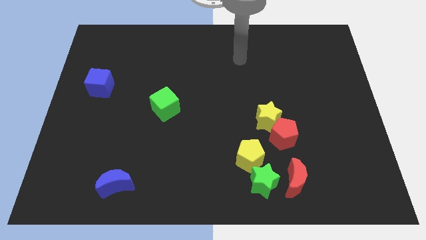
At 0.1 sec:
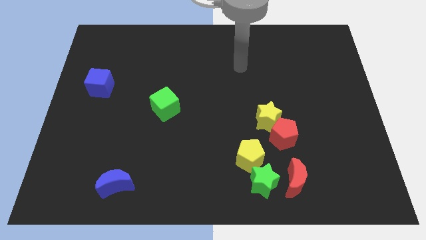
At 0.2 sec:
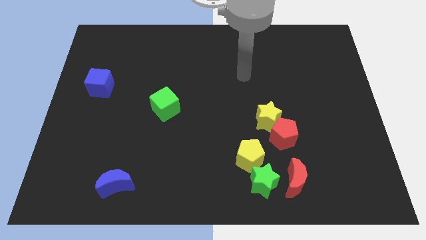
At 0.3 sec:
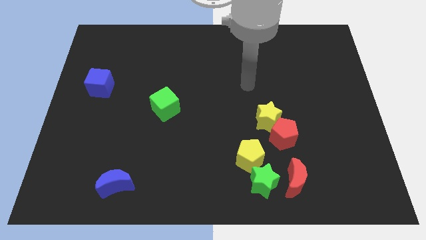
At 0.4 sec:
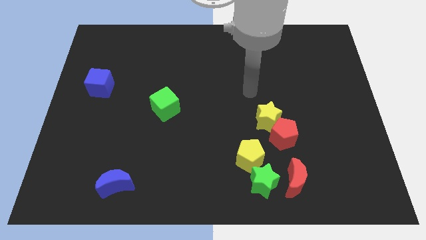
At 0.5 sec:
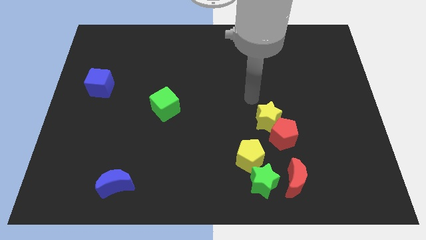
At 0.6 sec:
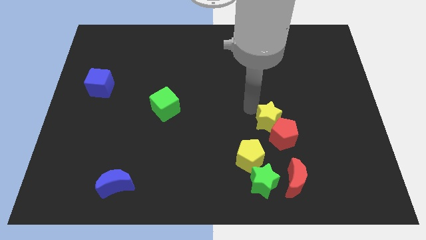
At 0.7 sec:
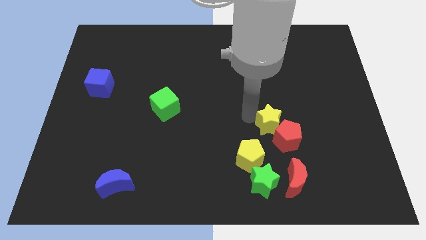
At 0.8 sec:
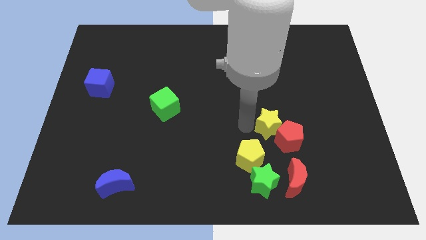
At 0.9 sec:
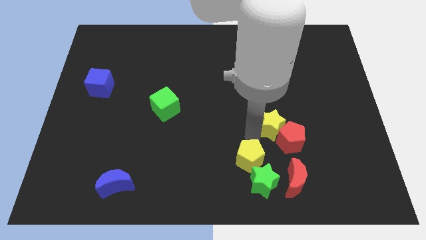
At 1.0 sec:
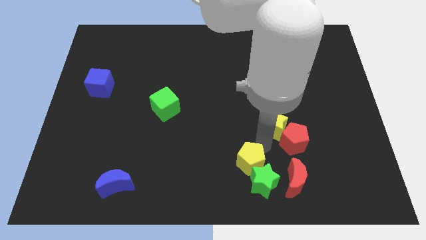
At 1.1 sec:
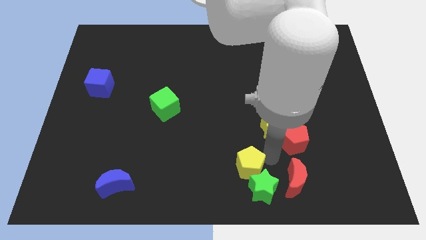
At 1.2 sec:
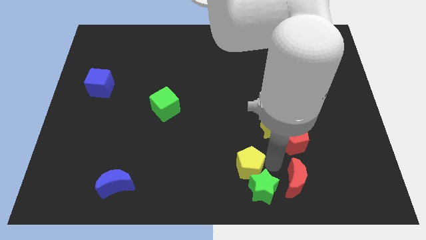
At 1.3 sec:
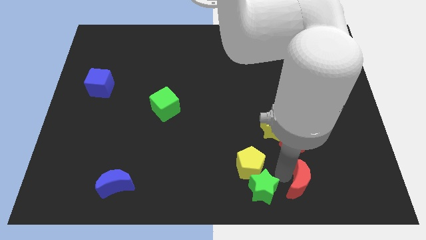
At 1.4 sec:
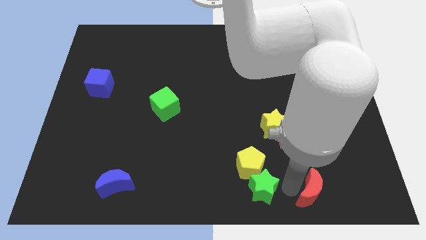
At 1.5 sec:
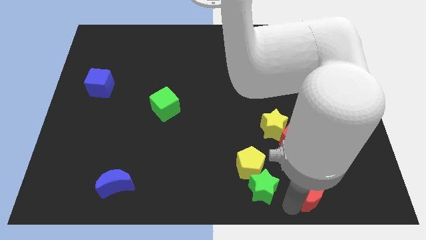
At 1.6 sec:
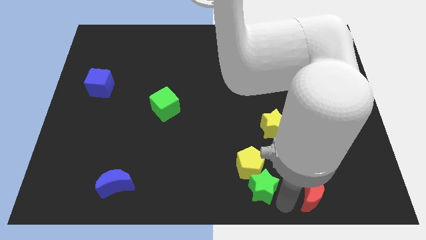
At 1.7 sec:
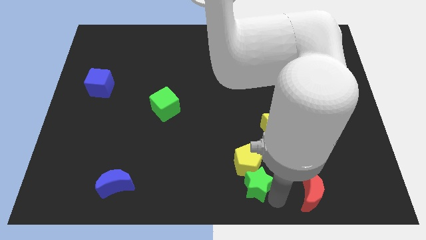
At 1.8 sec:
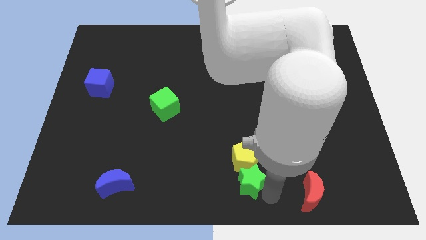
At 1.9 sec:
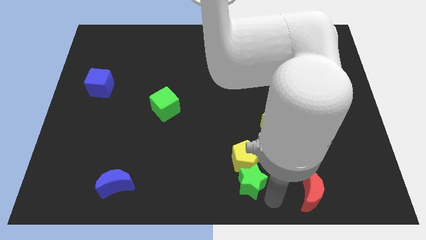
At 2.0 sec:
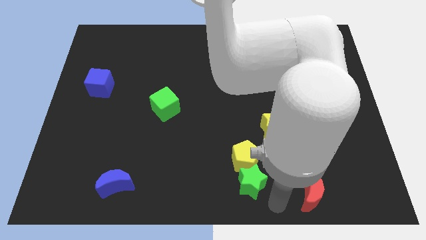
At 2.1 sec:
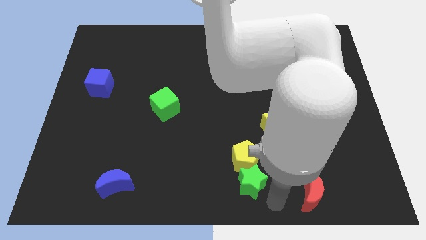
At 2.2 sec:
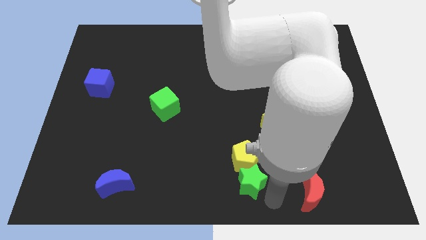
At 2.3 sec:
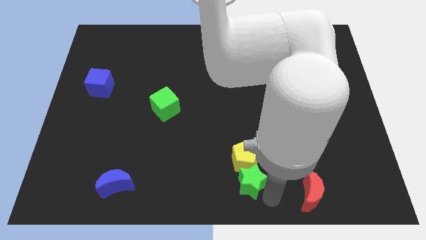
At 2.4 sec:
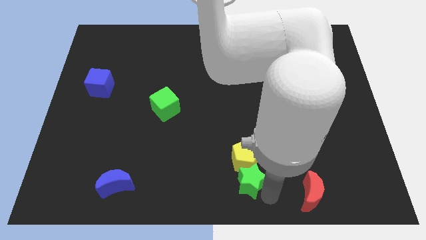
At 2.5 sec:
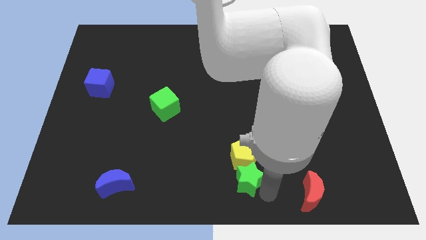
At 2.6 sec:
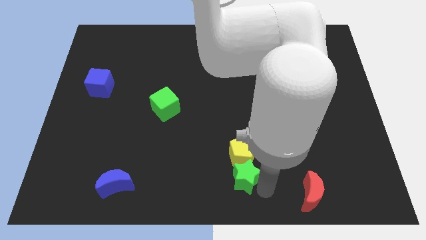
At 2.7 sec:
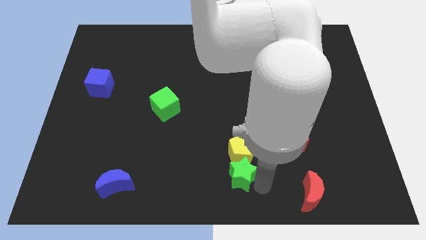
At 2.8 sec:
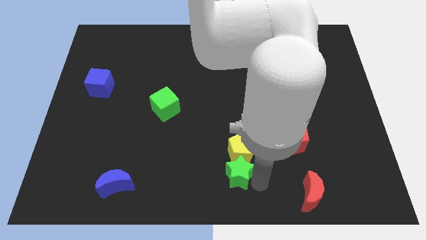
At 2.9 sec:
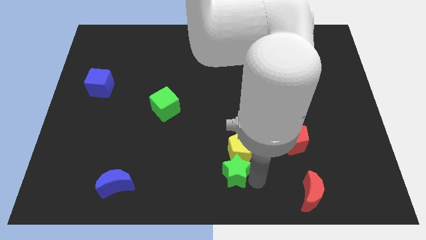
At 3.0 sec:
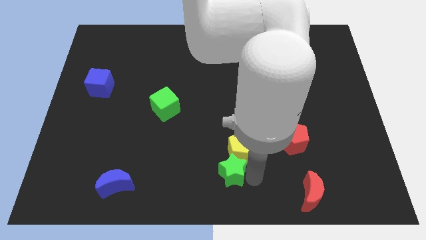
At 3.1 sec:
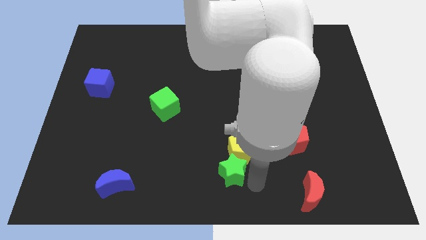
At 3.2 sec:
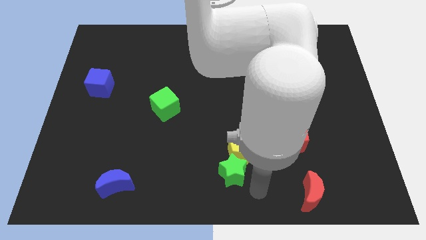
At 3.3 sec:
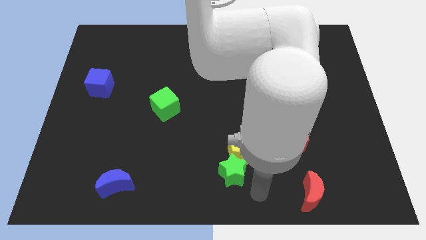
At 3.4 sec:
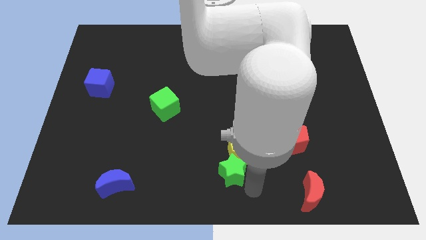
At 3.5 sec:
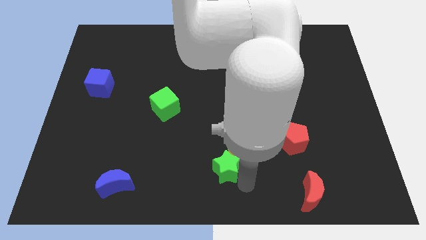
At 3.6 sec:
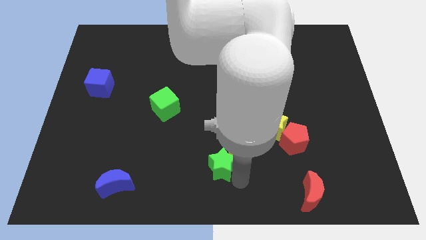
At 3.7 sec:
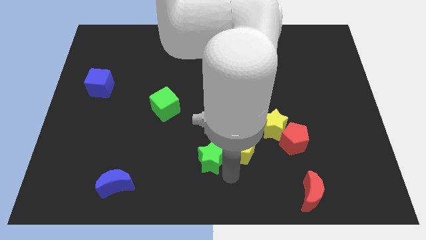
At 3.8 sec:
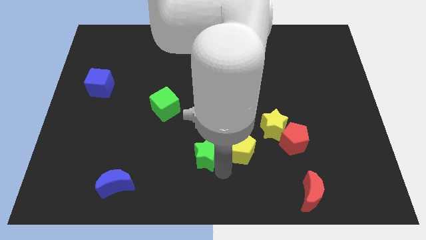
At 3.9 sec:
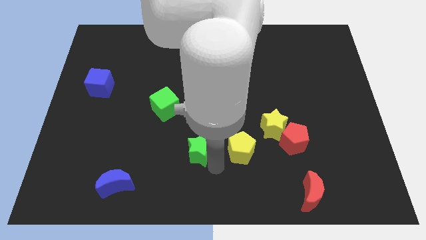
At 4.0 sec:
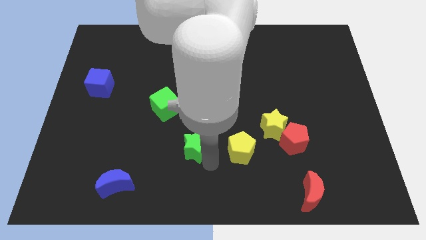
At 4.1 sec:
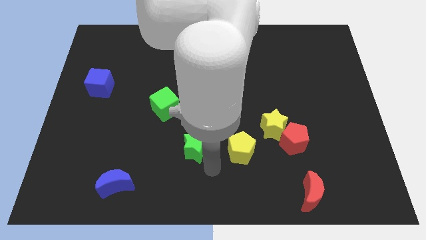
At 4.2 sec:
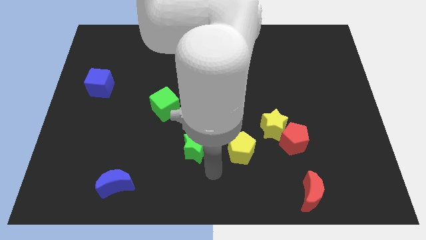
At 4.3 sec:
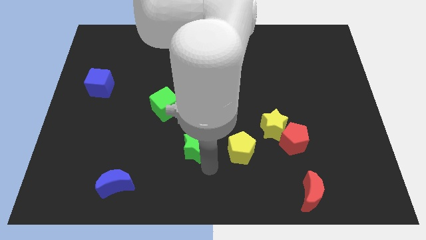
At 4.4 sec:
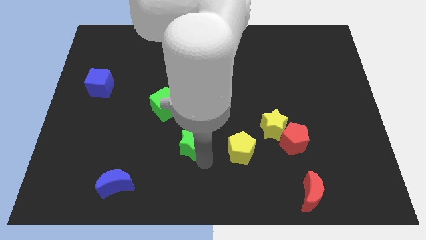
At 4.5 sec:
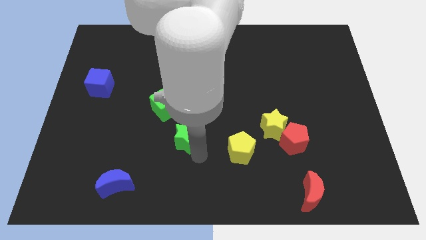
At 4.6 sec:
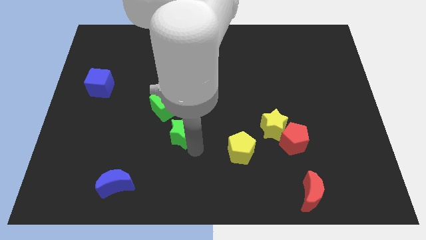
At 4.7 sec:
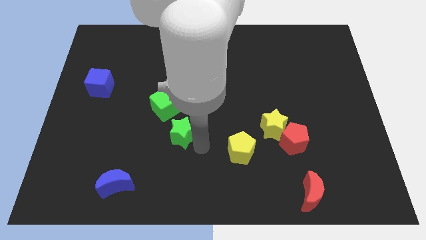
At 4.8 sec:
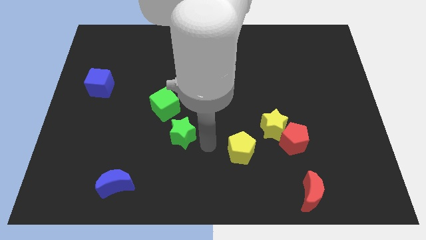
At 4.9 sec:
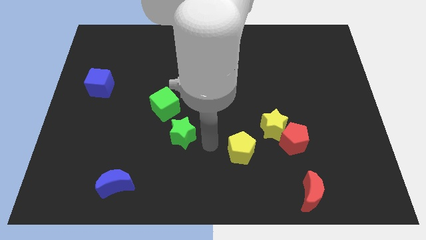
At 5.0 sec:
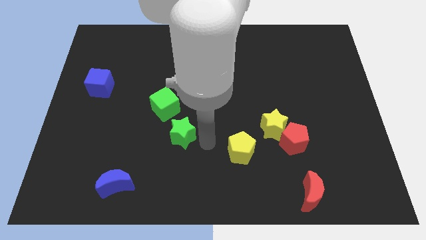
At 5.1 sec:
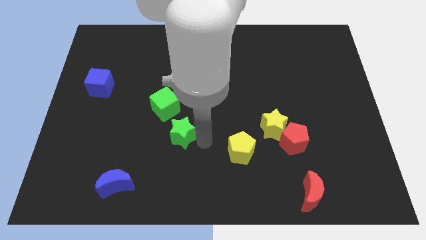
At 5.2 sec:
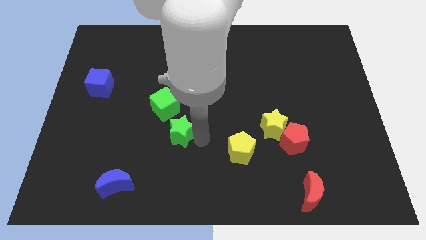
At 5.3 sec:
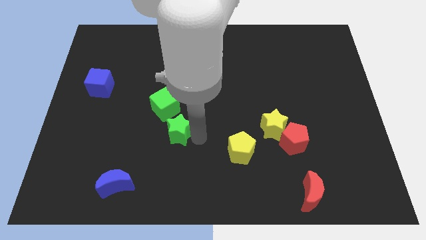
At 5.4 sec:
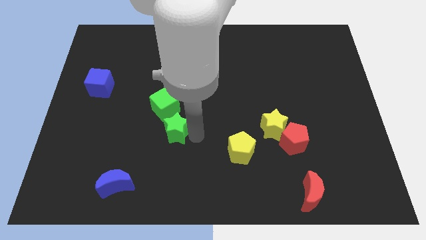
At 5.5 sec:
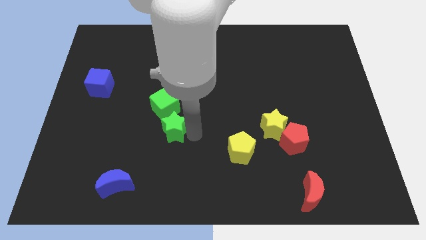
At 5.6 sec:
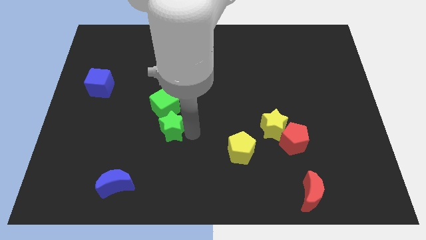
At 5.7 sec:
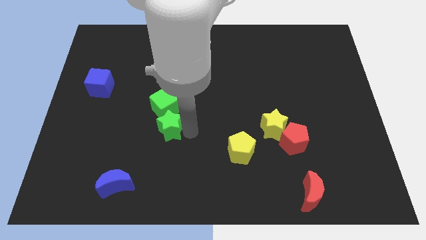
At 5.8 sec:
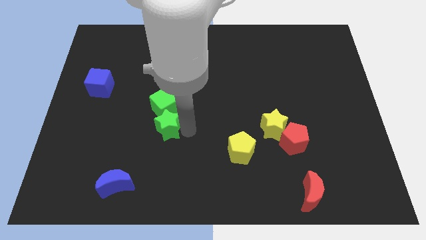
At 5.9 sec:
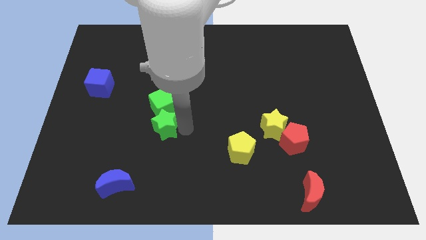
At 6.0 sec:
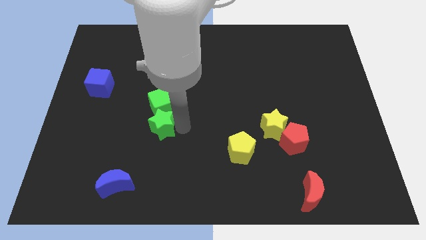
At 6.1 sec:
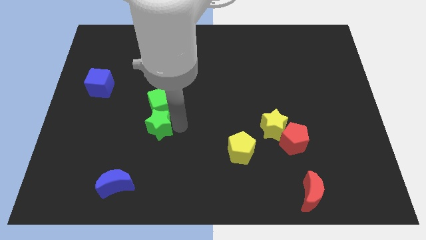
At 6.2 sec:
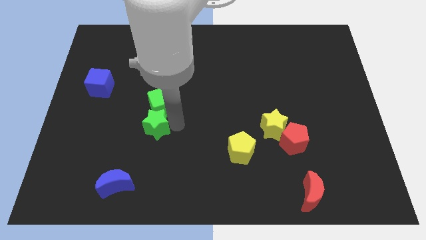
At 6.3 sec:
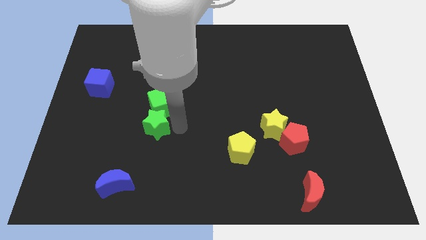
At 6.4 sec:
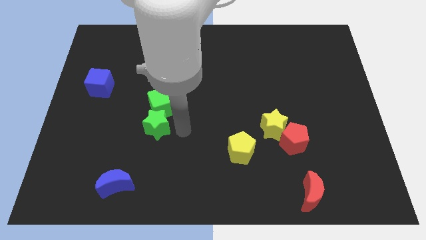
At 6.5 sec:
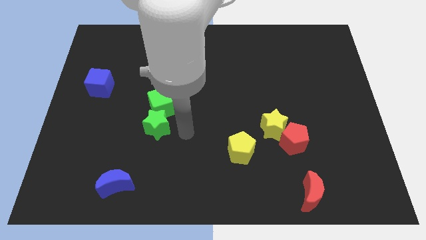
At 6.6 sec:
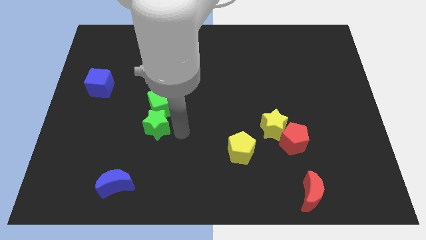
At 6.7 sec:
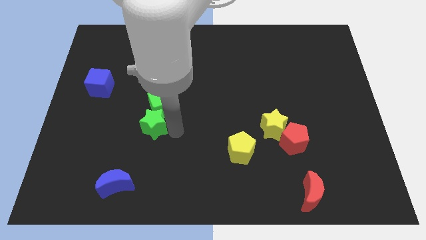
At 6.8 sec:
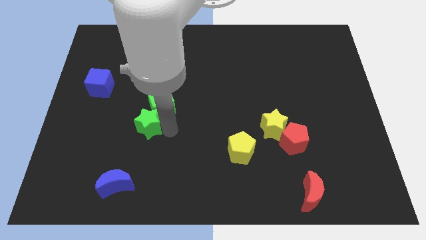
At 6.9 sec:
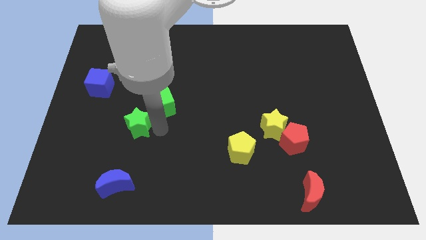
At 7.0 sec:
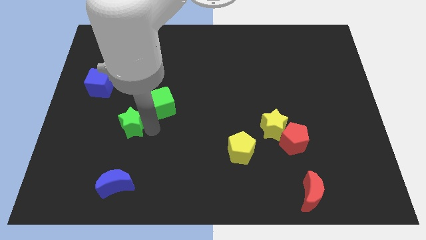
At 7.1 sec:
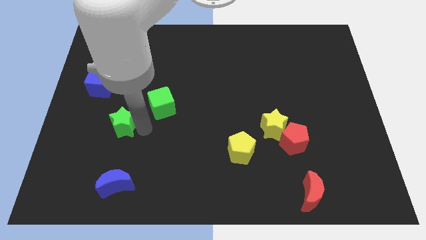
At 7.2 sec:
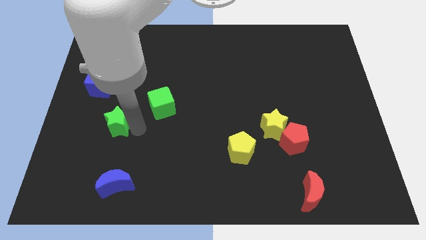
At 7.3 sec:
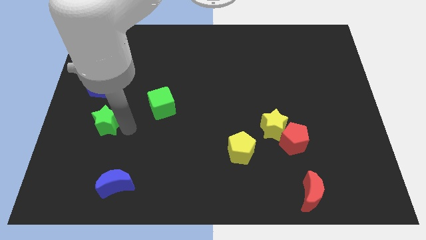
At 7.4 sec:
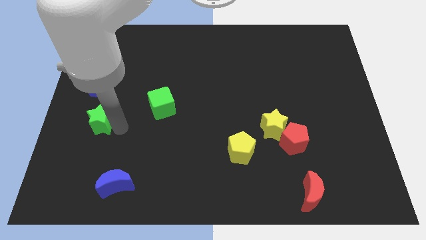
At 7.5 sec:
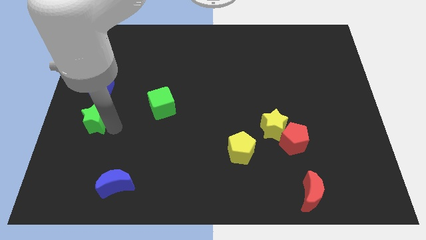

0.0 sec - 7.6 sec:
move the green star to the center left
